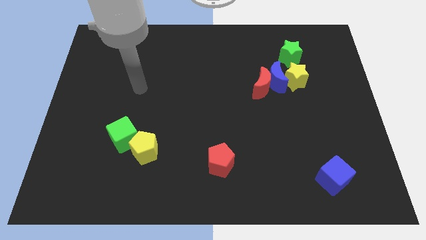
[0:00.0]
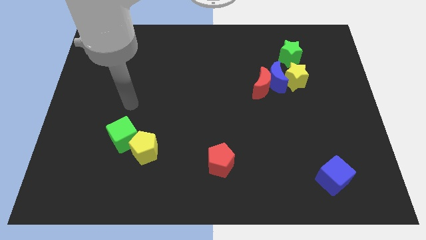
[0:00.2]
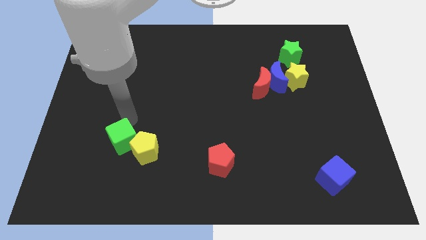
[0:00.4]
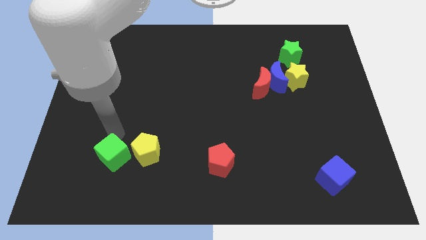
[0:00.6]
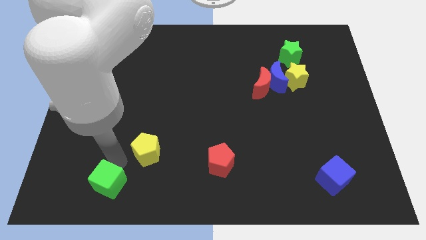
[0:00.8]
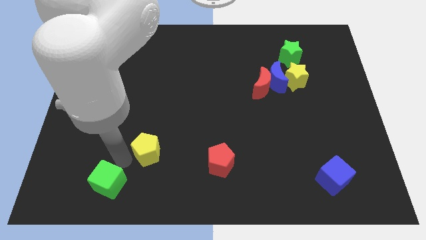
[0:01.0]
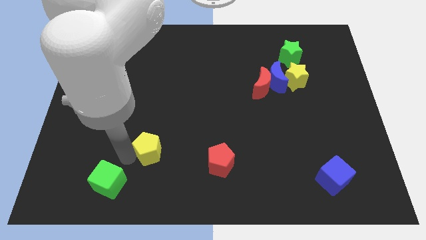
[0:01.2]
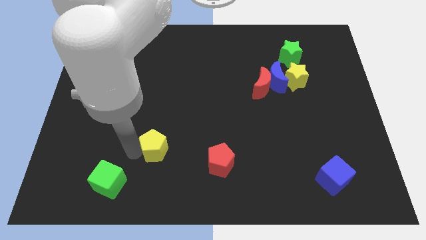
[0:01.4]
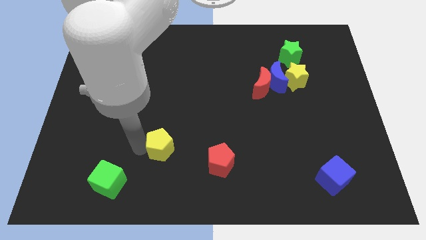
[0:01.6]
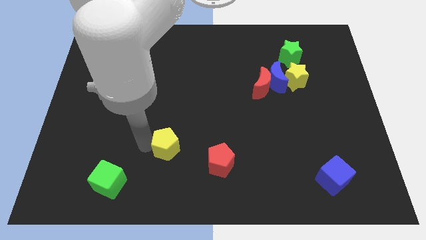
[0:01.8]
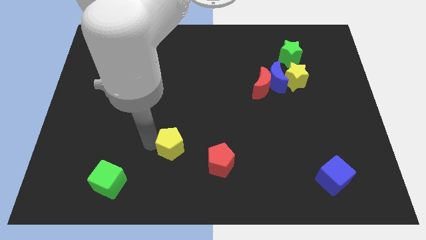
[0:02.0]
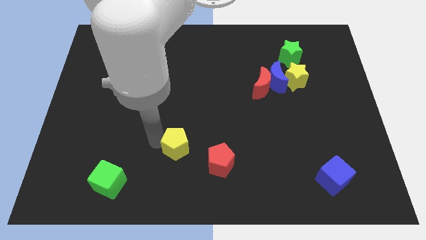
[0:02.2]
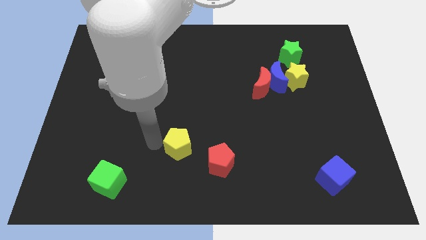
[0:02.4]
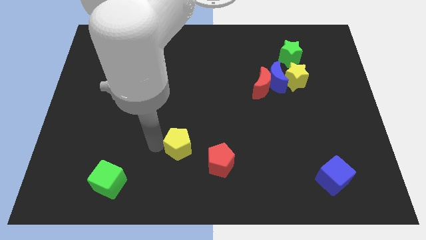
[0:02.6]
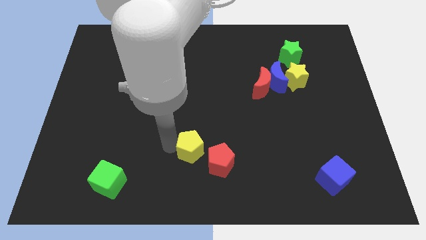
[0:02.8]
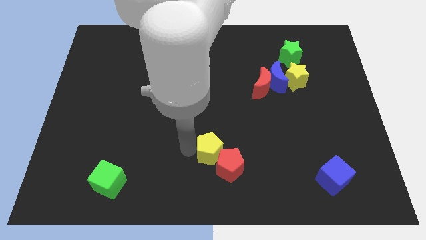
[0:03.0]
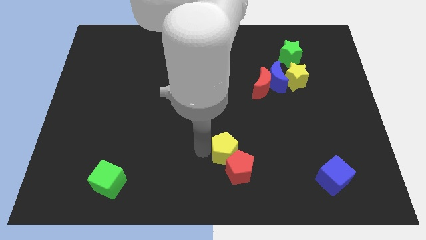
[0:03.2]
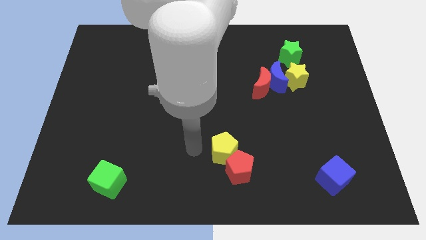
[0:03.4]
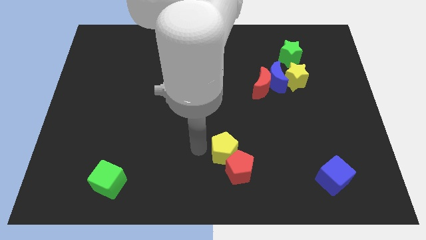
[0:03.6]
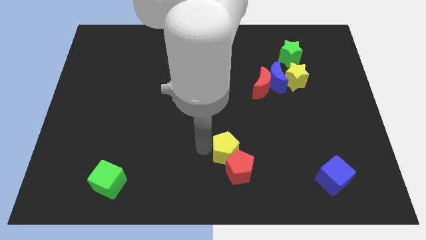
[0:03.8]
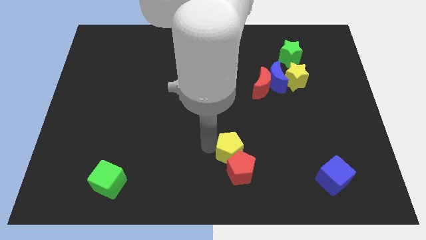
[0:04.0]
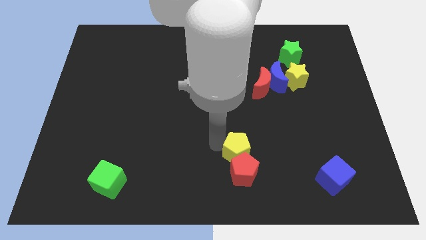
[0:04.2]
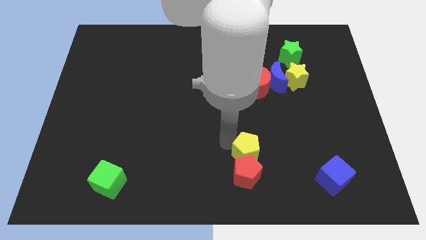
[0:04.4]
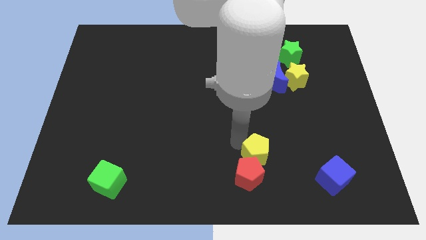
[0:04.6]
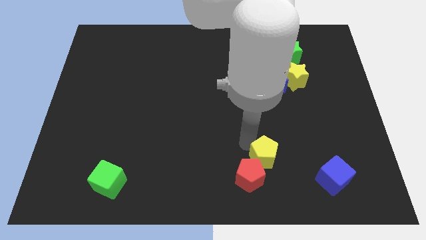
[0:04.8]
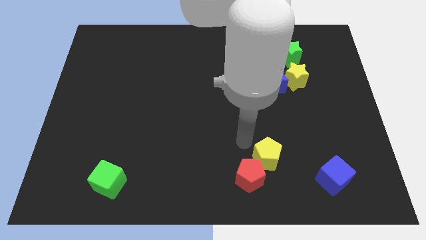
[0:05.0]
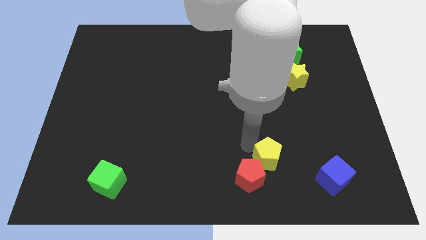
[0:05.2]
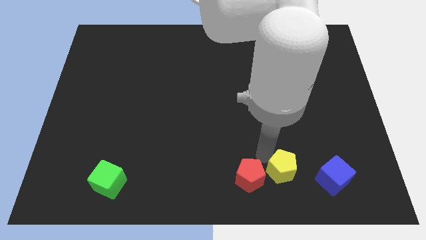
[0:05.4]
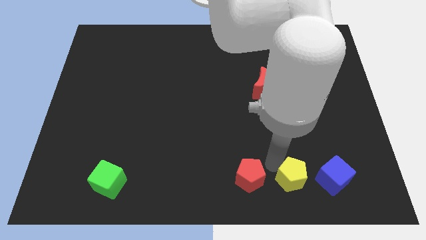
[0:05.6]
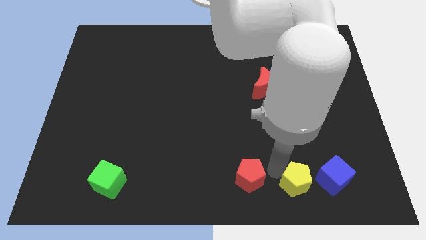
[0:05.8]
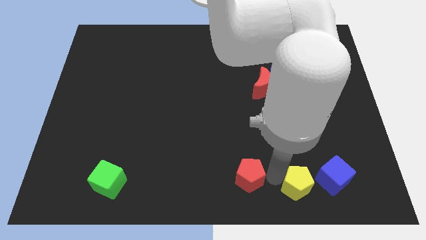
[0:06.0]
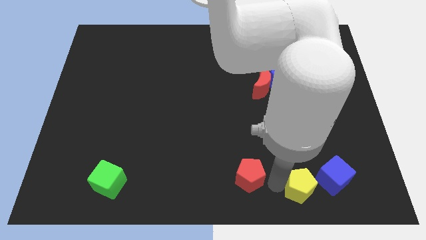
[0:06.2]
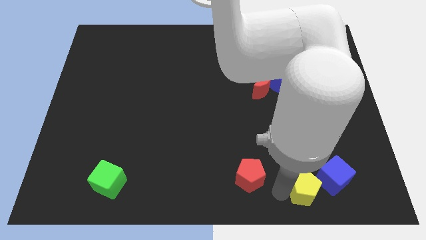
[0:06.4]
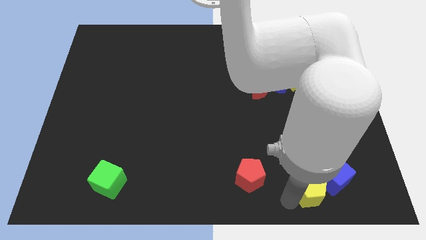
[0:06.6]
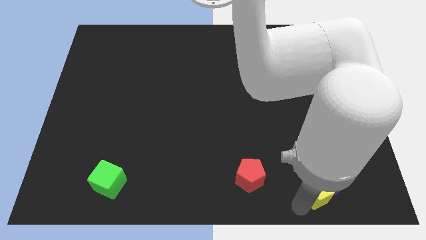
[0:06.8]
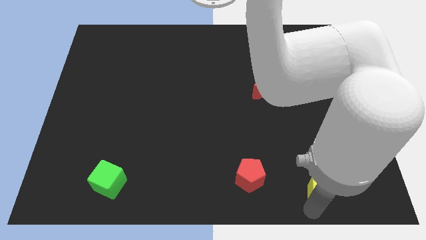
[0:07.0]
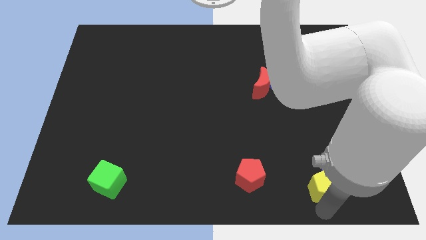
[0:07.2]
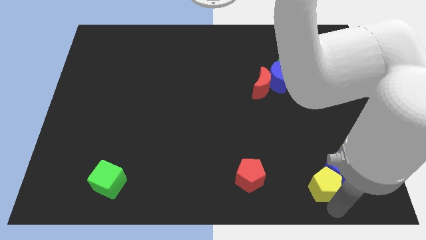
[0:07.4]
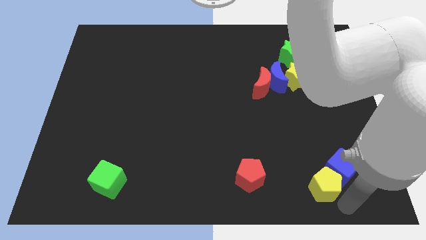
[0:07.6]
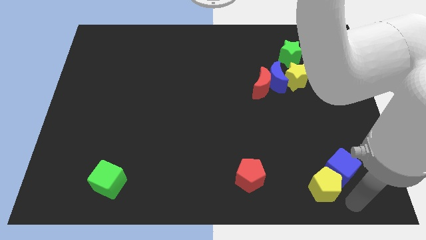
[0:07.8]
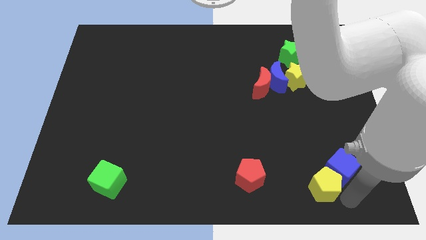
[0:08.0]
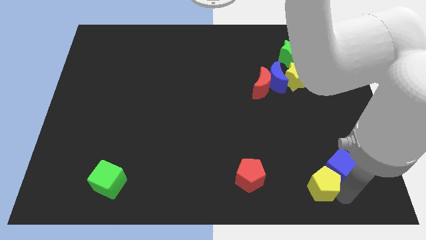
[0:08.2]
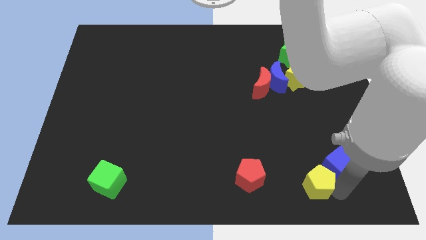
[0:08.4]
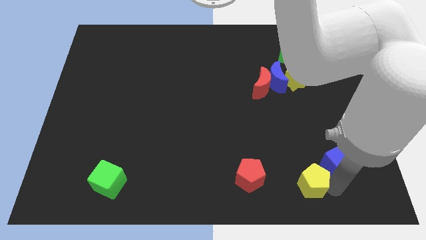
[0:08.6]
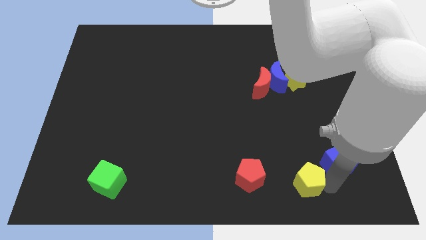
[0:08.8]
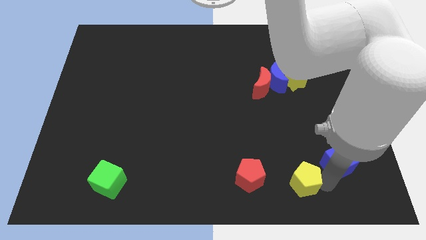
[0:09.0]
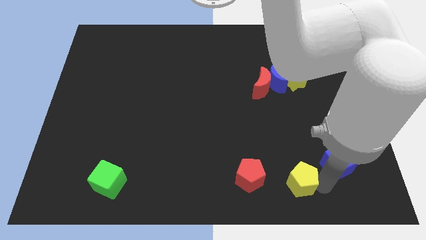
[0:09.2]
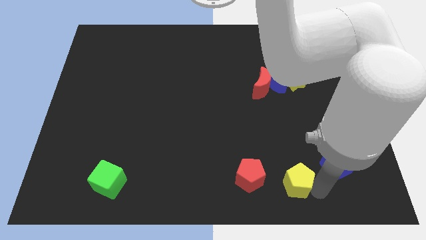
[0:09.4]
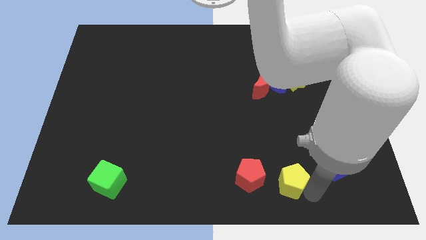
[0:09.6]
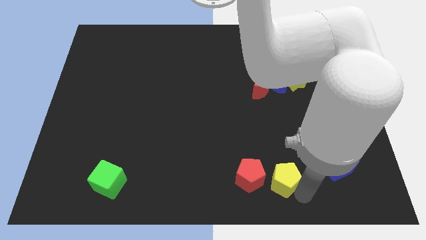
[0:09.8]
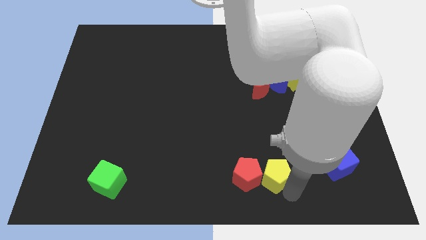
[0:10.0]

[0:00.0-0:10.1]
slide the yellow pentagon to the right of the red pentagon

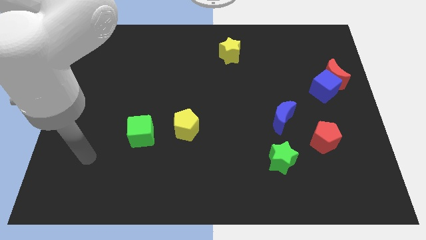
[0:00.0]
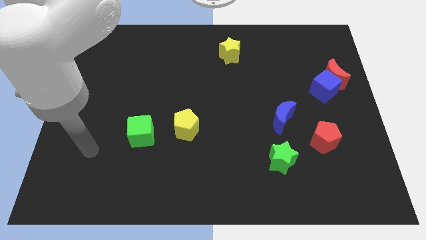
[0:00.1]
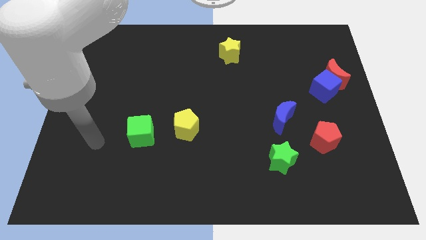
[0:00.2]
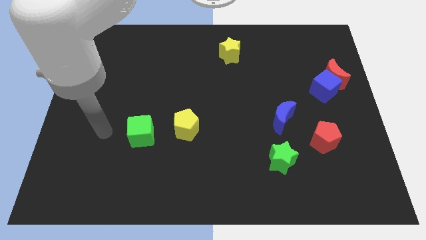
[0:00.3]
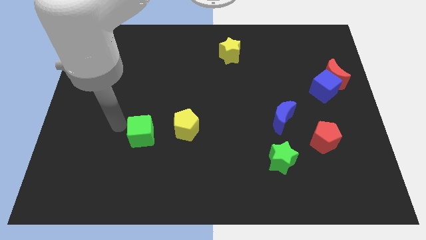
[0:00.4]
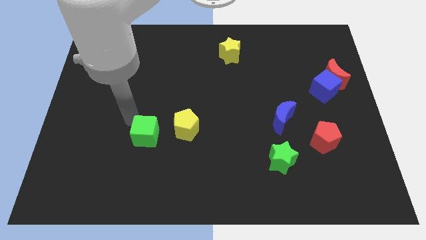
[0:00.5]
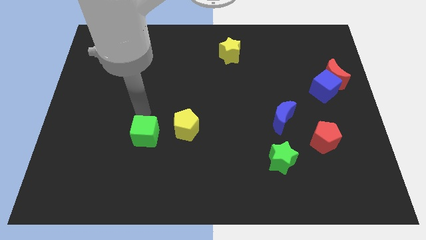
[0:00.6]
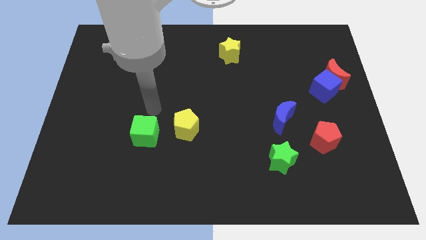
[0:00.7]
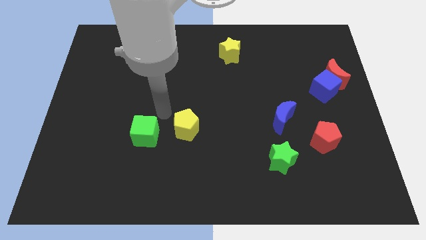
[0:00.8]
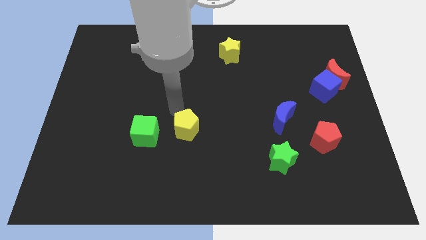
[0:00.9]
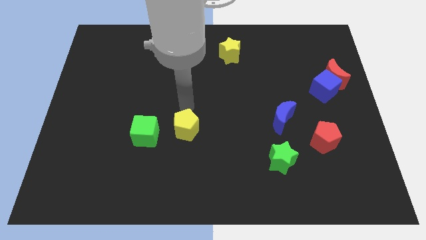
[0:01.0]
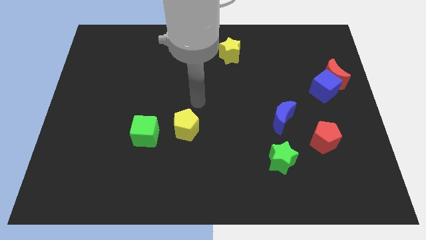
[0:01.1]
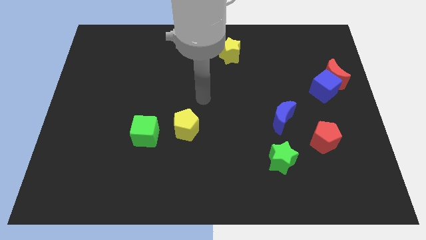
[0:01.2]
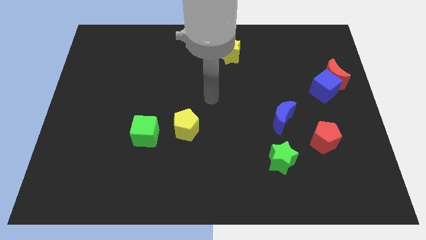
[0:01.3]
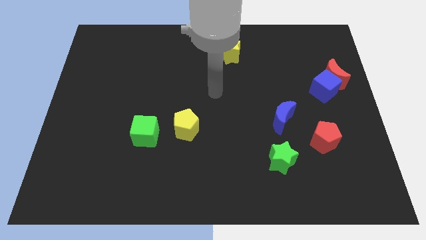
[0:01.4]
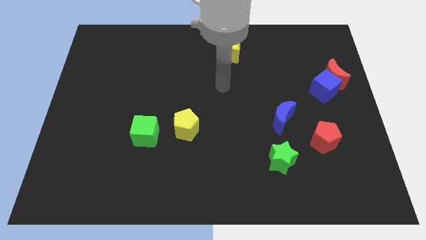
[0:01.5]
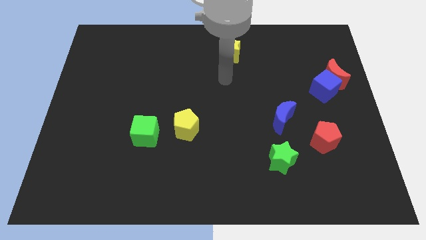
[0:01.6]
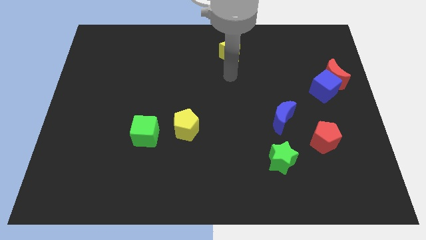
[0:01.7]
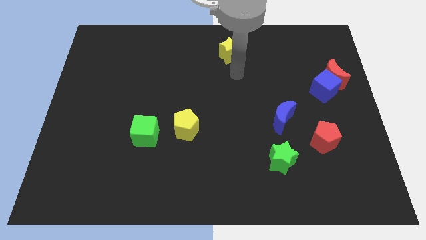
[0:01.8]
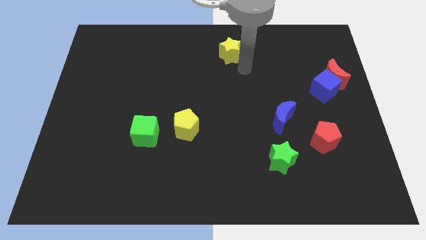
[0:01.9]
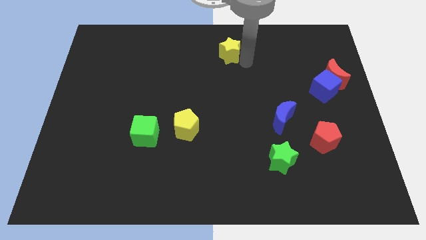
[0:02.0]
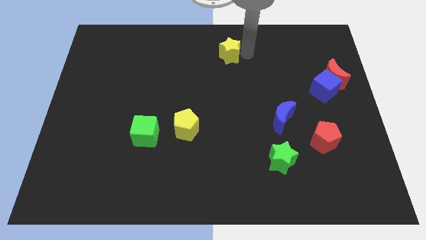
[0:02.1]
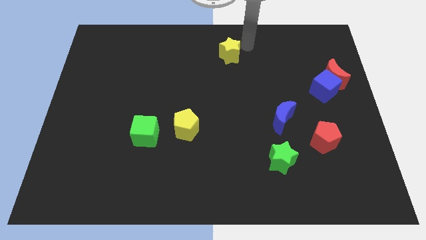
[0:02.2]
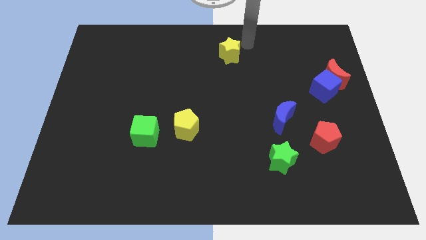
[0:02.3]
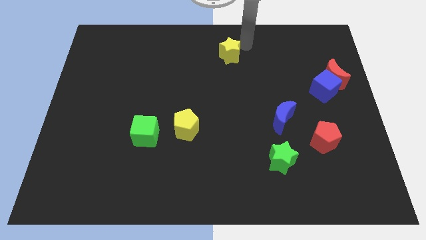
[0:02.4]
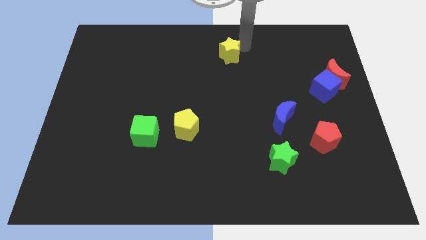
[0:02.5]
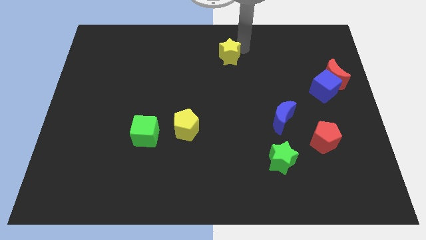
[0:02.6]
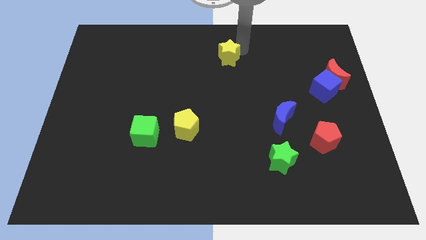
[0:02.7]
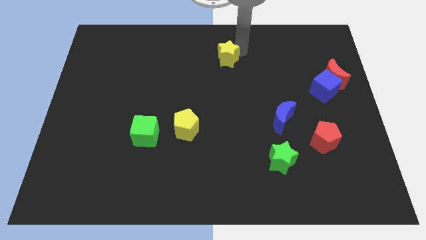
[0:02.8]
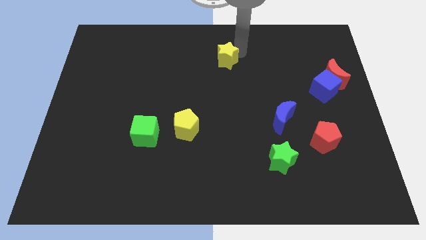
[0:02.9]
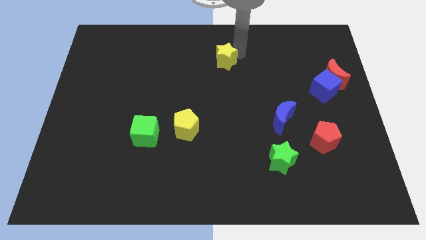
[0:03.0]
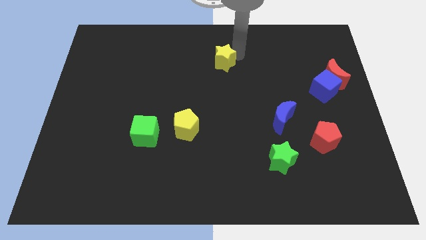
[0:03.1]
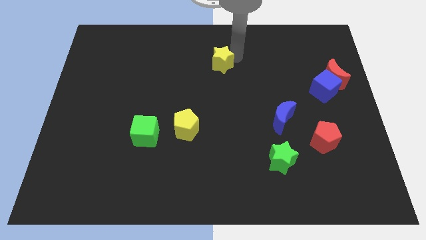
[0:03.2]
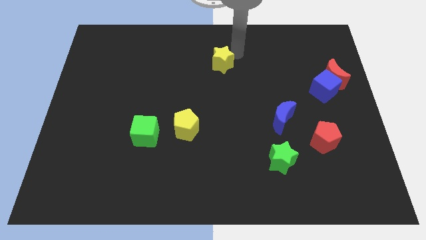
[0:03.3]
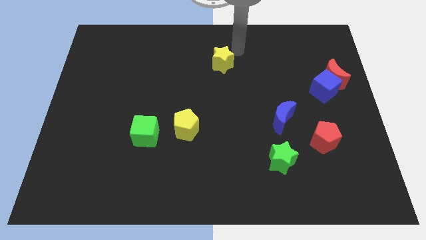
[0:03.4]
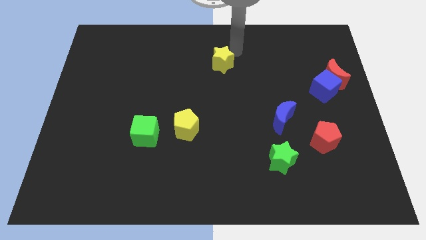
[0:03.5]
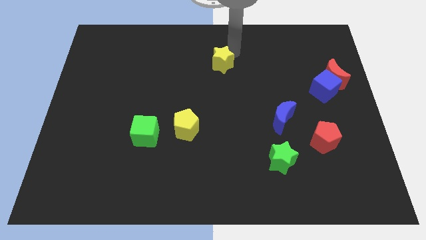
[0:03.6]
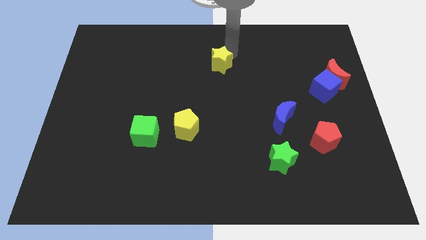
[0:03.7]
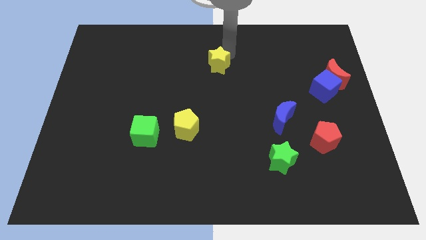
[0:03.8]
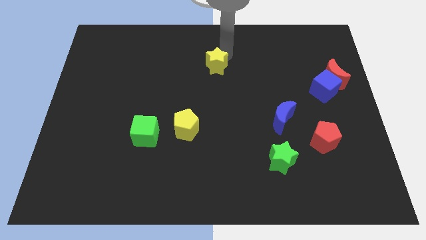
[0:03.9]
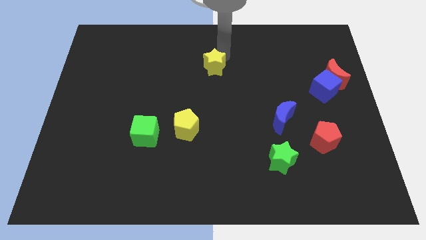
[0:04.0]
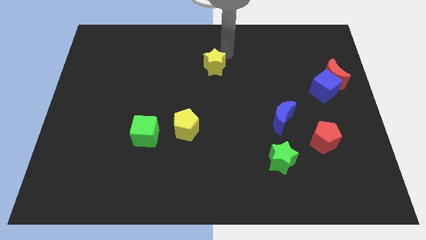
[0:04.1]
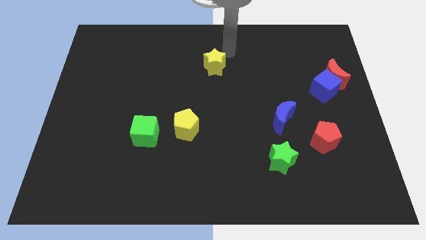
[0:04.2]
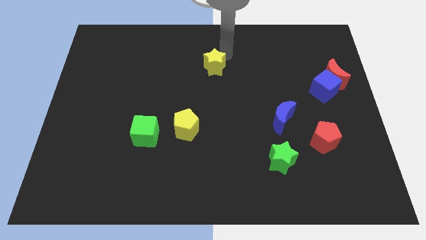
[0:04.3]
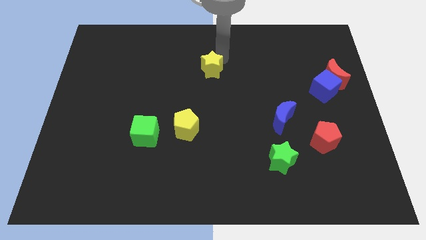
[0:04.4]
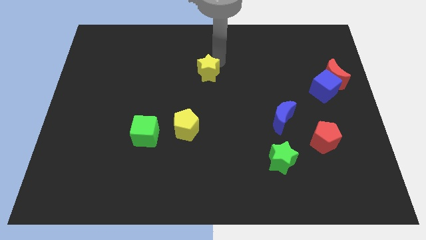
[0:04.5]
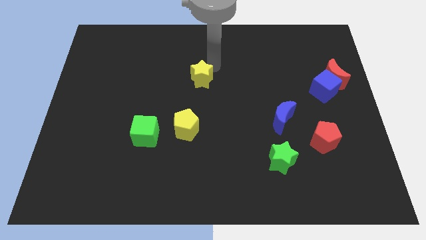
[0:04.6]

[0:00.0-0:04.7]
put the yellow star to the top side of the yellow pentagon
